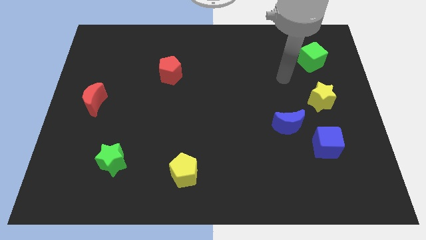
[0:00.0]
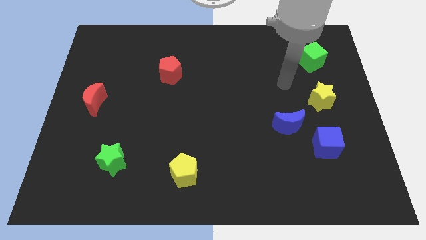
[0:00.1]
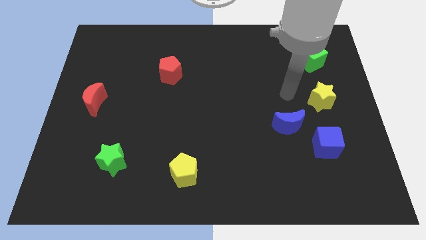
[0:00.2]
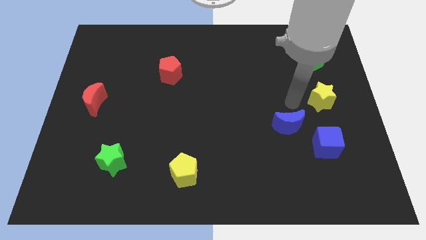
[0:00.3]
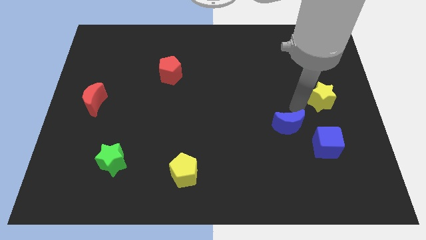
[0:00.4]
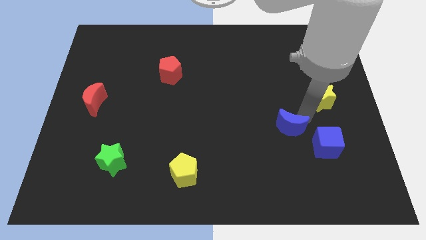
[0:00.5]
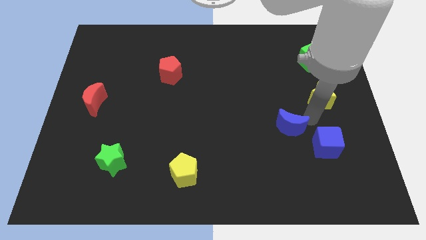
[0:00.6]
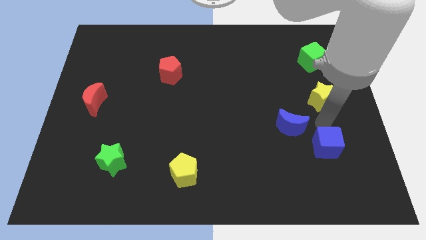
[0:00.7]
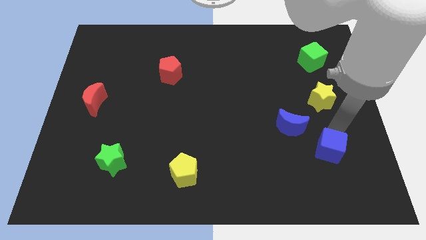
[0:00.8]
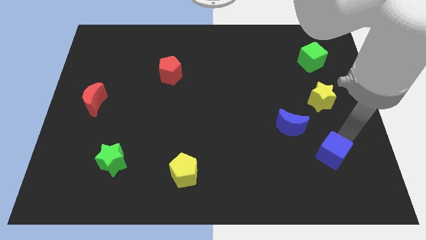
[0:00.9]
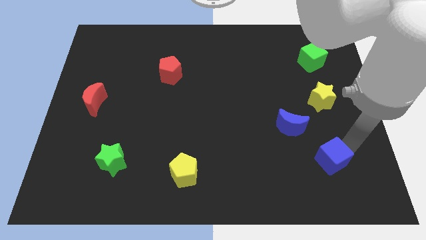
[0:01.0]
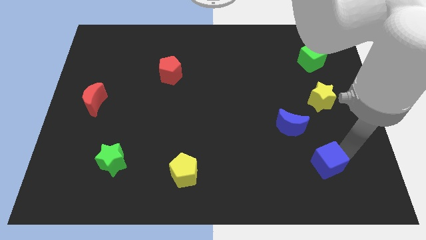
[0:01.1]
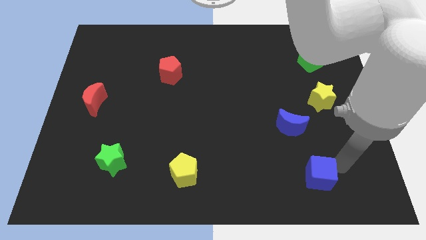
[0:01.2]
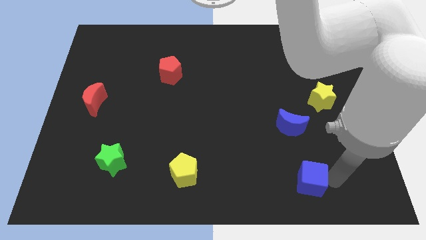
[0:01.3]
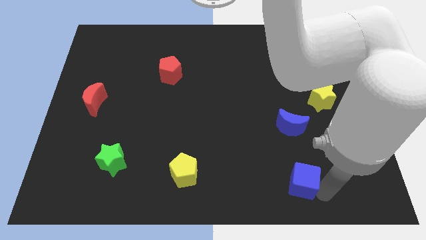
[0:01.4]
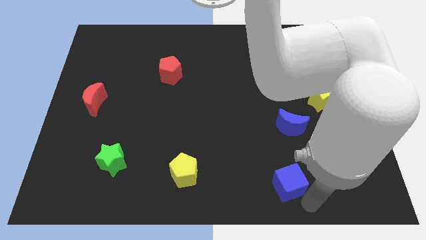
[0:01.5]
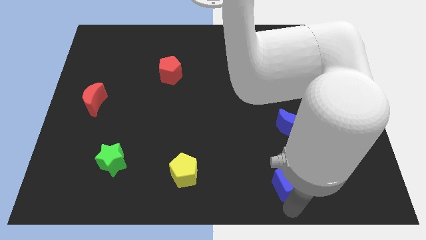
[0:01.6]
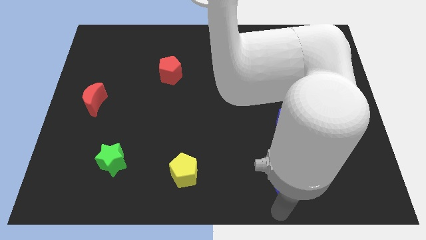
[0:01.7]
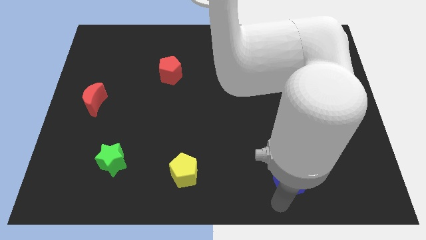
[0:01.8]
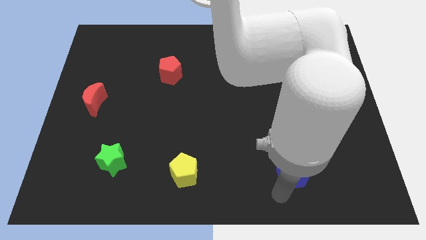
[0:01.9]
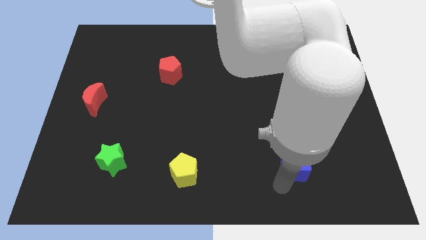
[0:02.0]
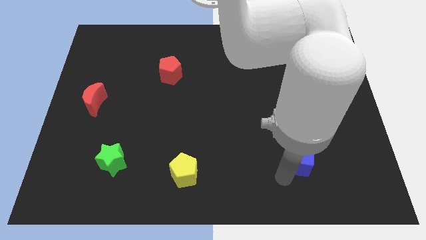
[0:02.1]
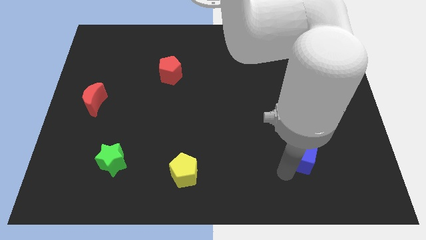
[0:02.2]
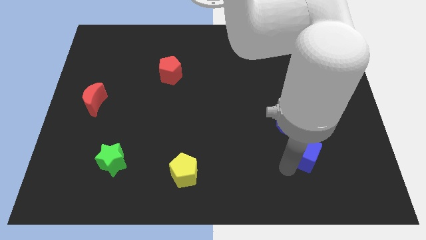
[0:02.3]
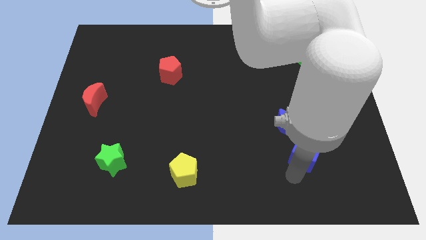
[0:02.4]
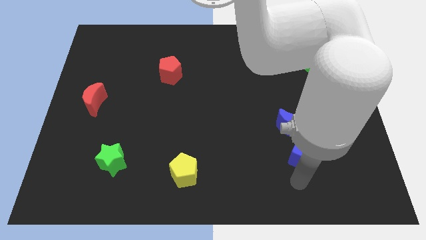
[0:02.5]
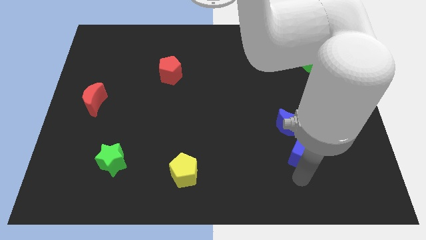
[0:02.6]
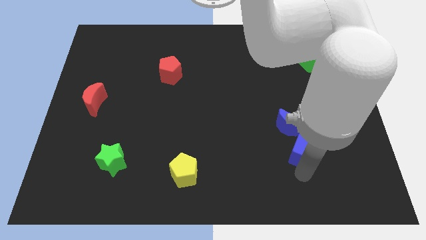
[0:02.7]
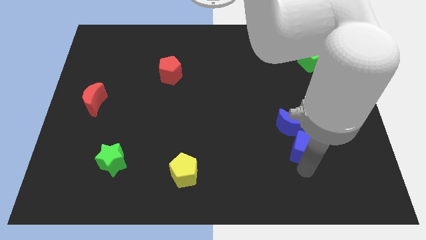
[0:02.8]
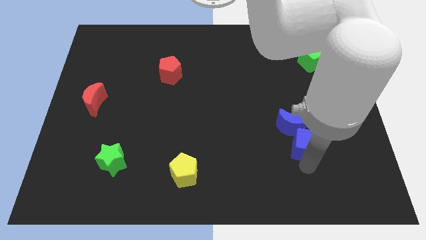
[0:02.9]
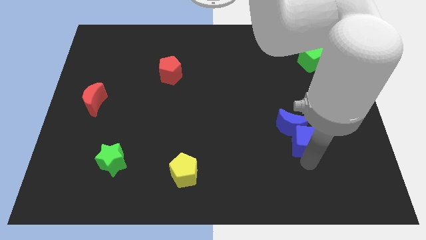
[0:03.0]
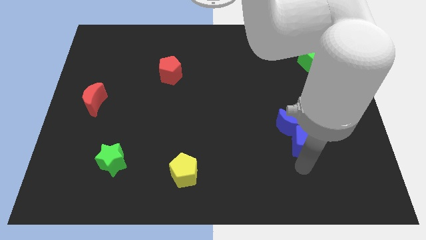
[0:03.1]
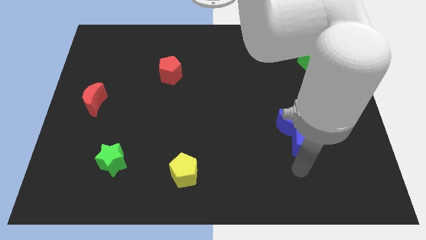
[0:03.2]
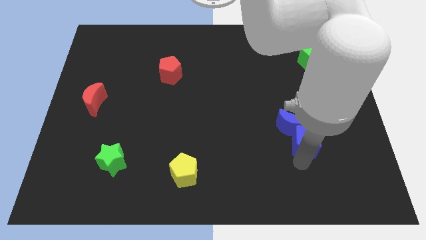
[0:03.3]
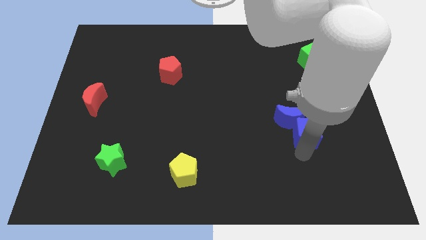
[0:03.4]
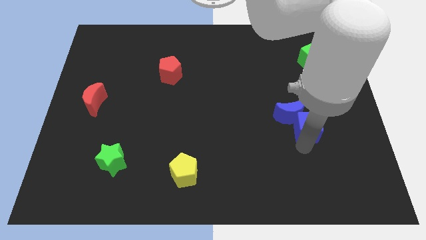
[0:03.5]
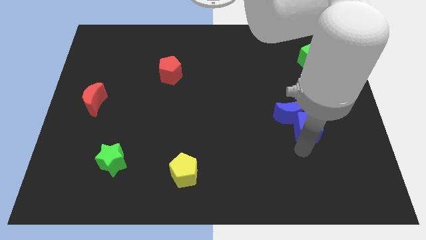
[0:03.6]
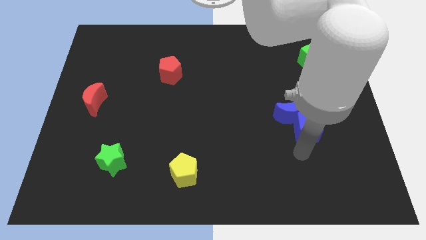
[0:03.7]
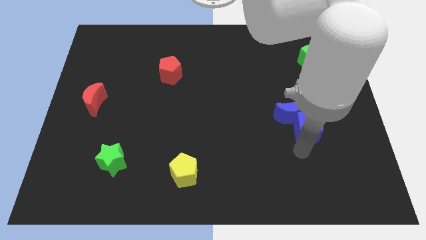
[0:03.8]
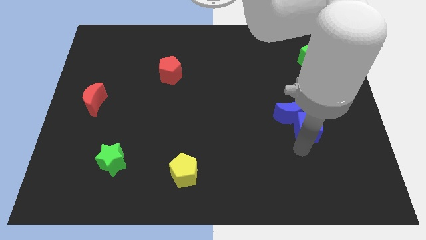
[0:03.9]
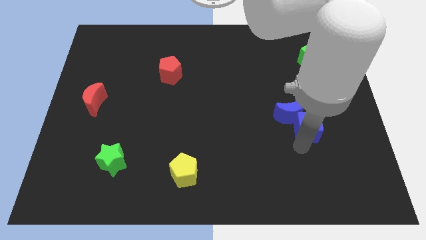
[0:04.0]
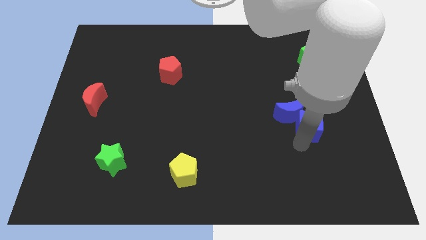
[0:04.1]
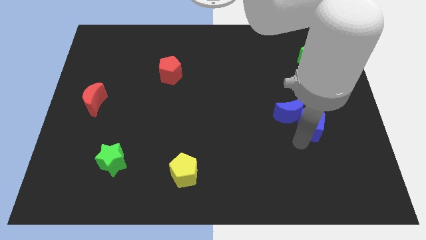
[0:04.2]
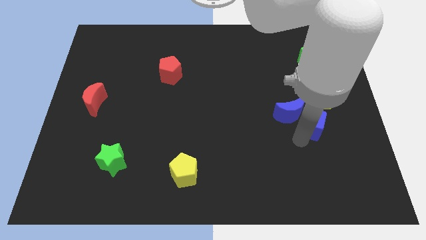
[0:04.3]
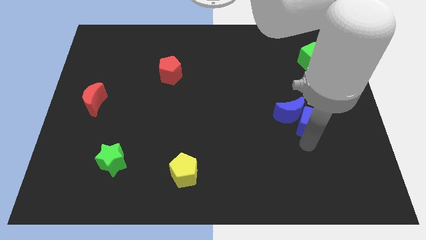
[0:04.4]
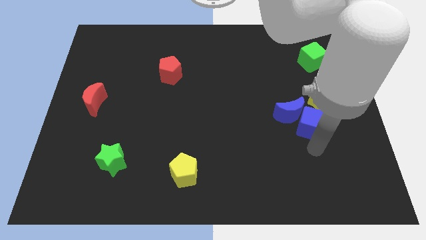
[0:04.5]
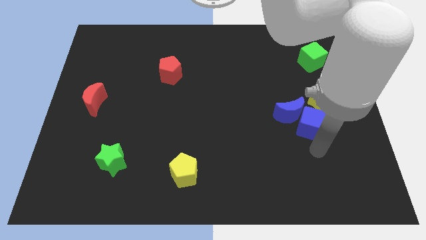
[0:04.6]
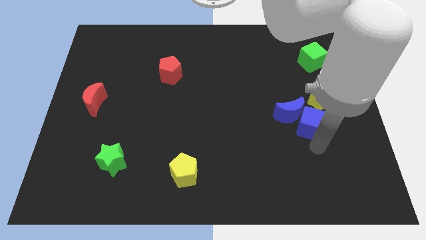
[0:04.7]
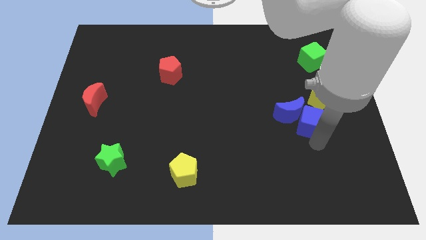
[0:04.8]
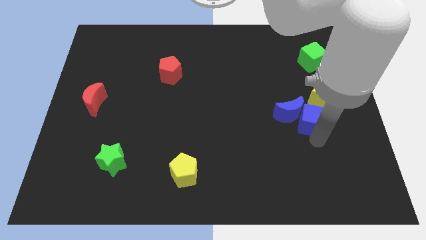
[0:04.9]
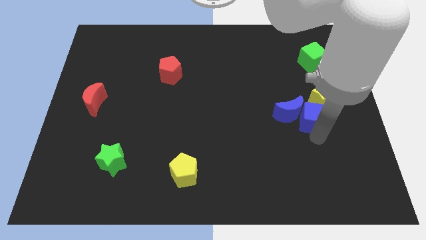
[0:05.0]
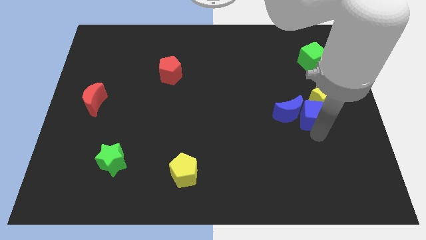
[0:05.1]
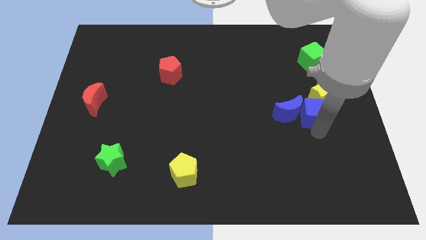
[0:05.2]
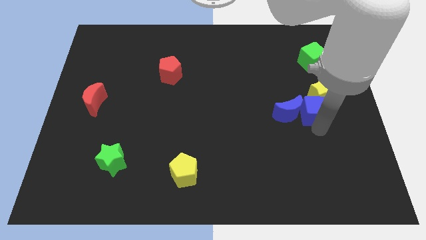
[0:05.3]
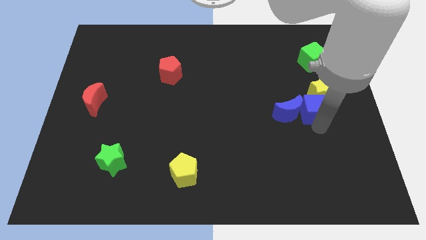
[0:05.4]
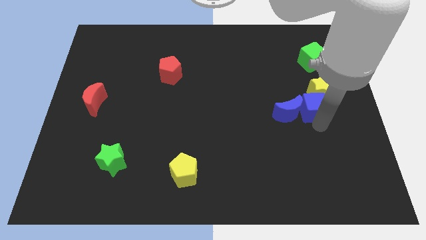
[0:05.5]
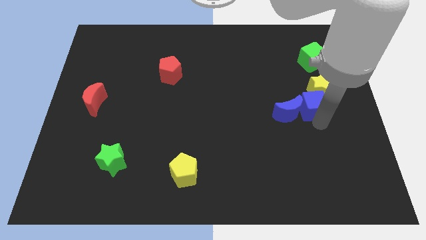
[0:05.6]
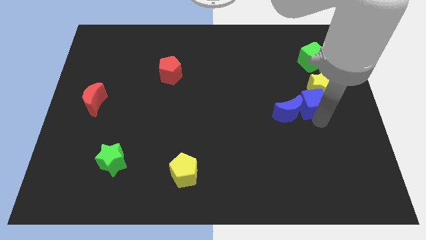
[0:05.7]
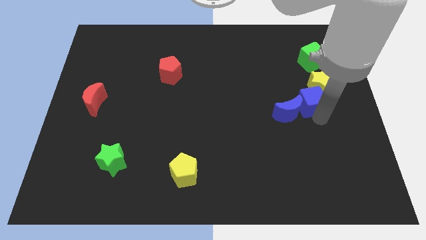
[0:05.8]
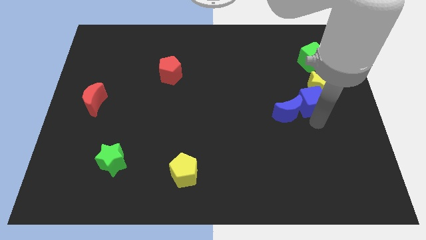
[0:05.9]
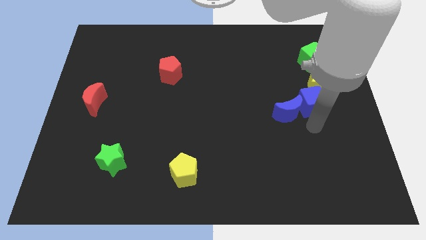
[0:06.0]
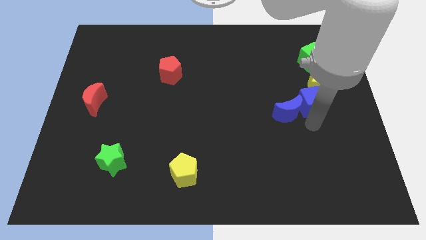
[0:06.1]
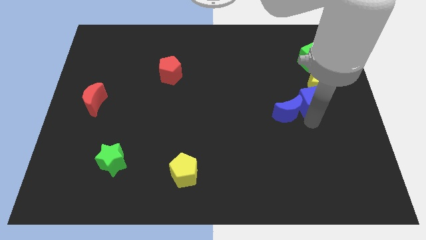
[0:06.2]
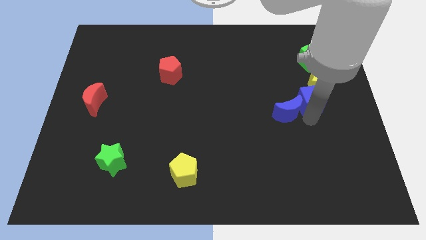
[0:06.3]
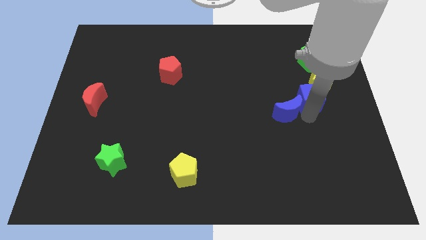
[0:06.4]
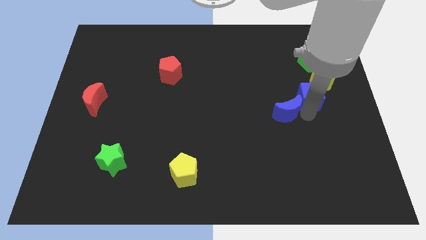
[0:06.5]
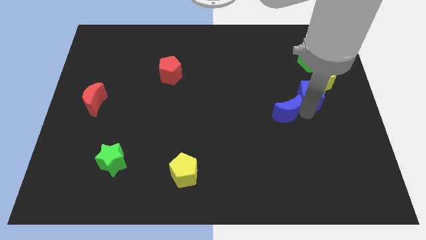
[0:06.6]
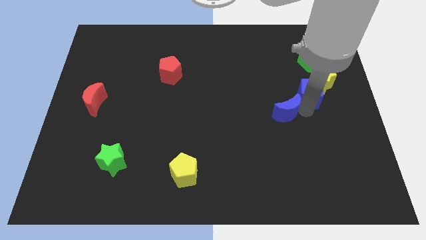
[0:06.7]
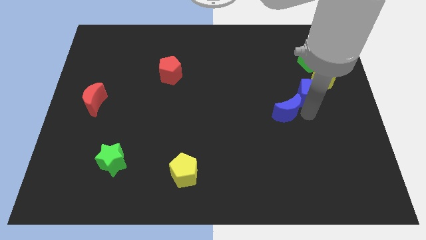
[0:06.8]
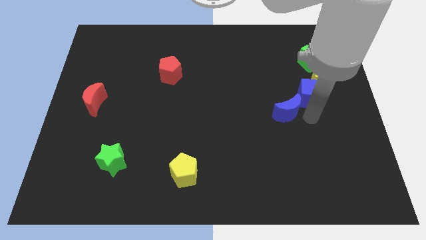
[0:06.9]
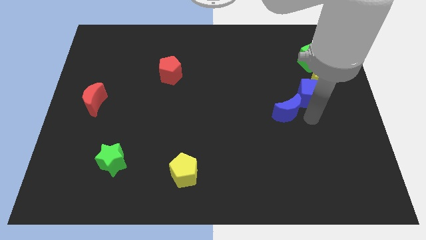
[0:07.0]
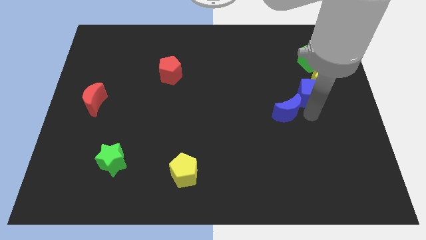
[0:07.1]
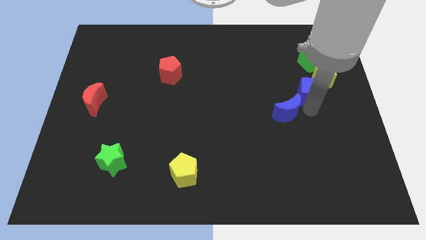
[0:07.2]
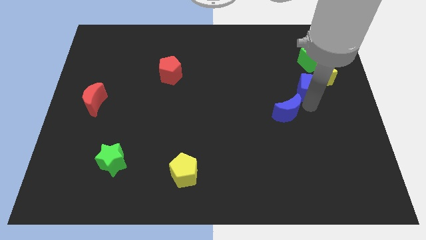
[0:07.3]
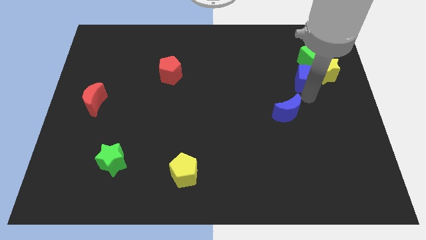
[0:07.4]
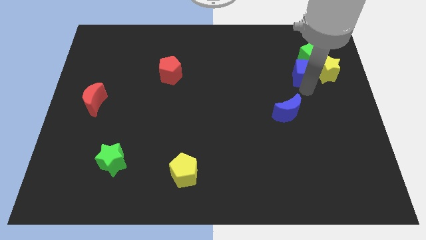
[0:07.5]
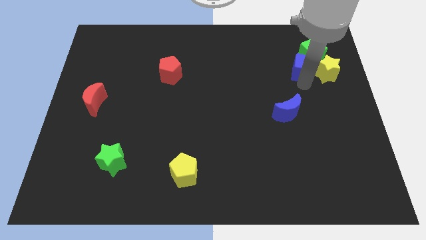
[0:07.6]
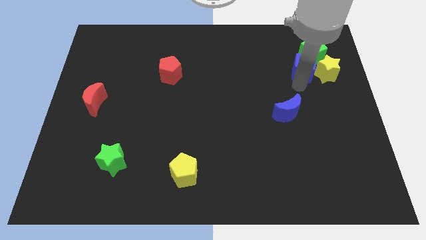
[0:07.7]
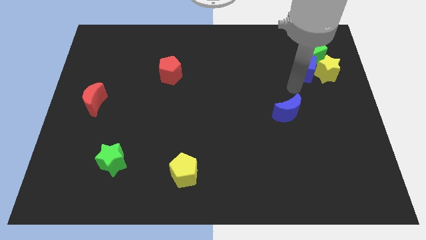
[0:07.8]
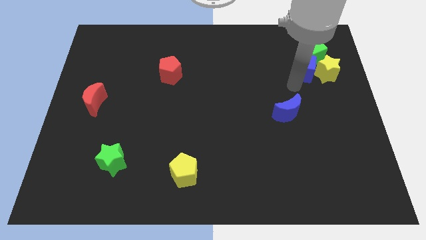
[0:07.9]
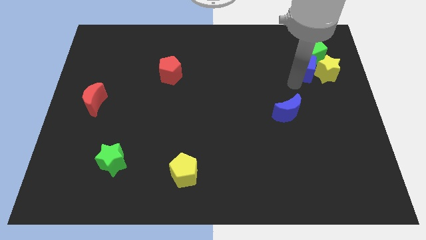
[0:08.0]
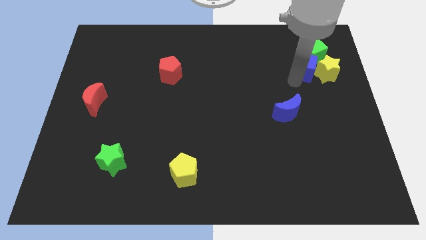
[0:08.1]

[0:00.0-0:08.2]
put the blue cube towards the green cube
